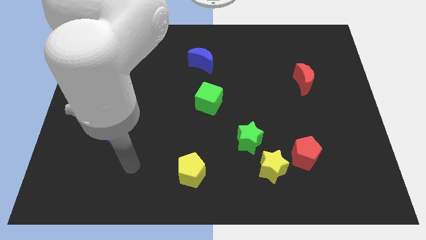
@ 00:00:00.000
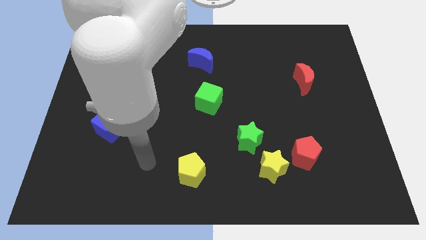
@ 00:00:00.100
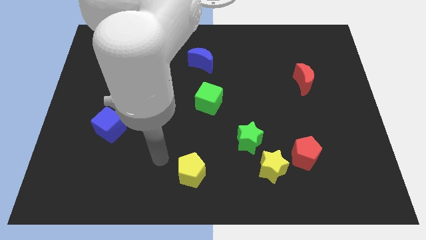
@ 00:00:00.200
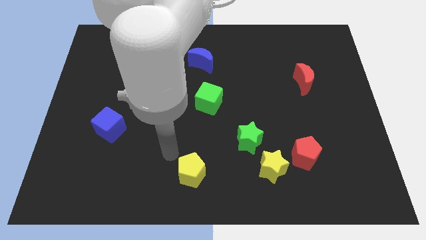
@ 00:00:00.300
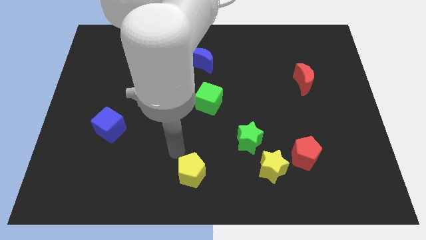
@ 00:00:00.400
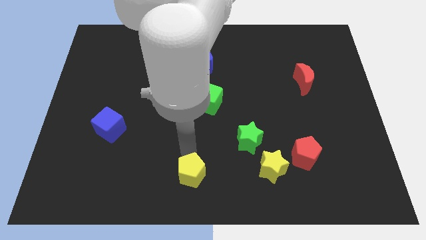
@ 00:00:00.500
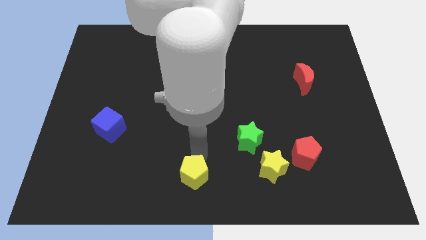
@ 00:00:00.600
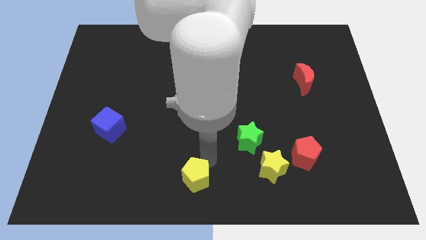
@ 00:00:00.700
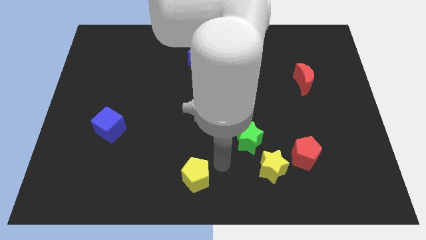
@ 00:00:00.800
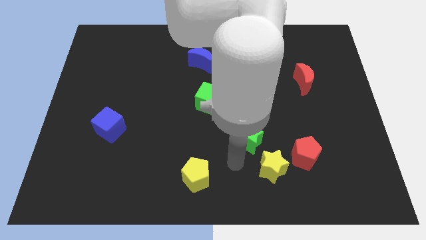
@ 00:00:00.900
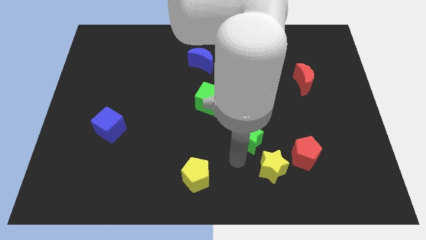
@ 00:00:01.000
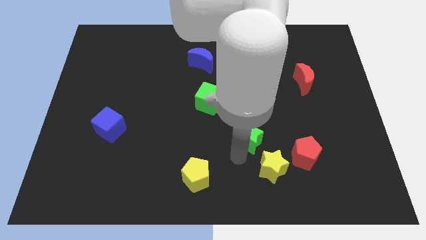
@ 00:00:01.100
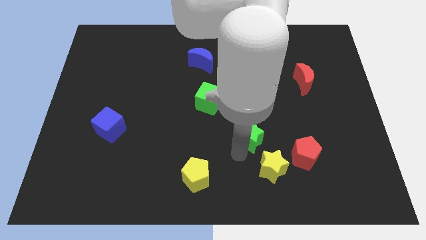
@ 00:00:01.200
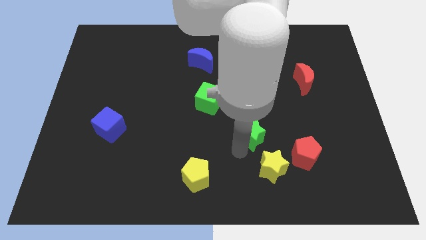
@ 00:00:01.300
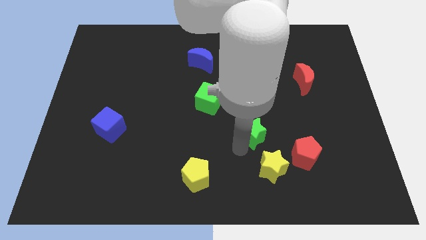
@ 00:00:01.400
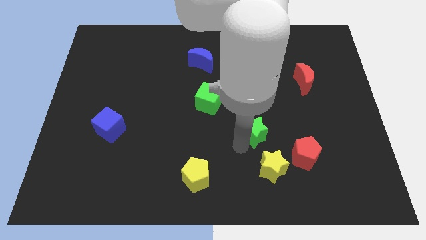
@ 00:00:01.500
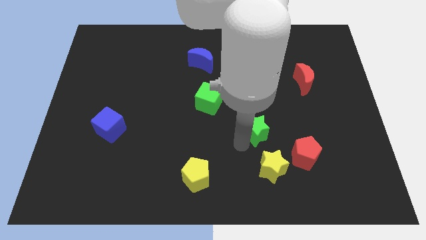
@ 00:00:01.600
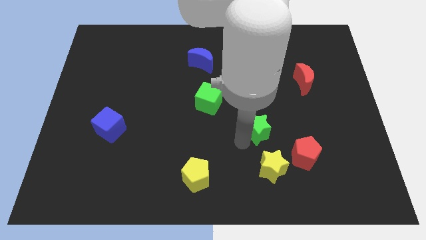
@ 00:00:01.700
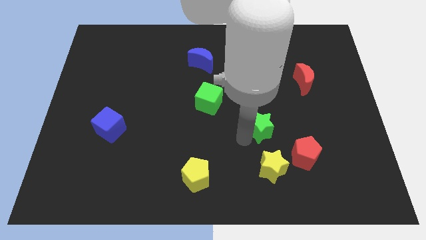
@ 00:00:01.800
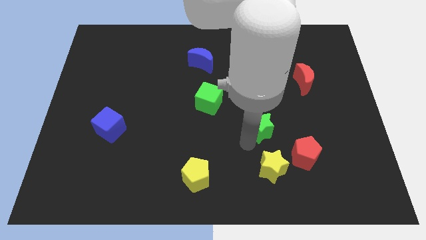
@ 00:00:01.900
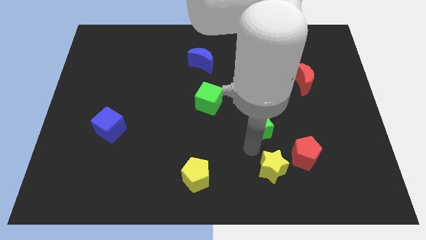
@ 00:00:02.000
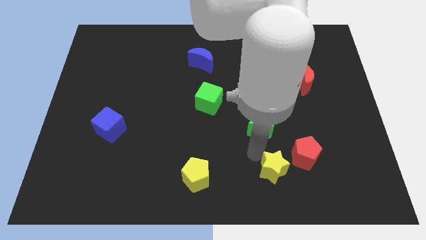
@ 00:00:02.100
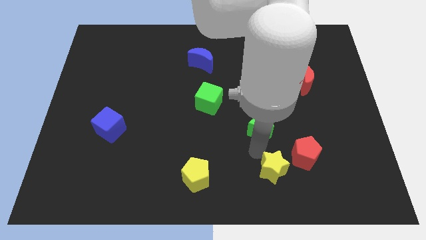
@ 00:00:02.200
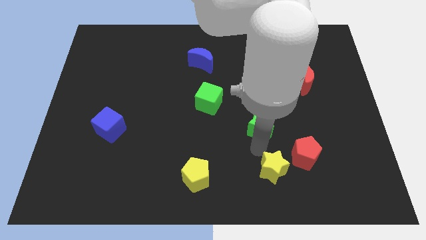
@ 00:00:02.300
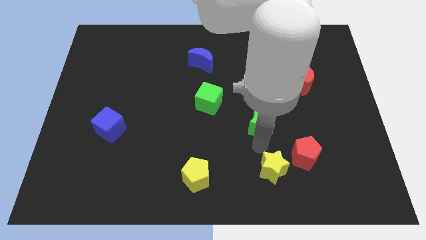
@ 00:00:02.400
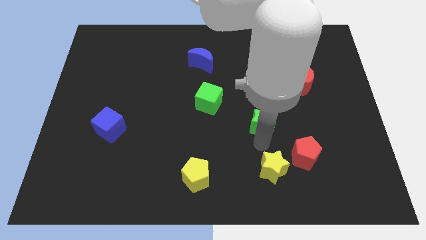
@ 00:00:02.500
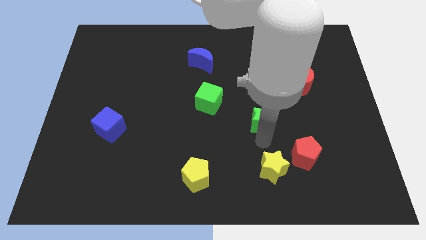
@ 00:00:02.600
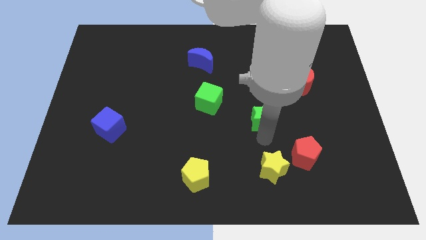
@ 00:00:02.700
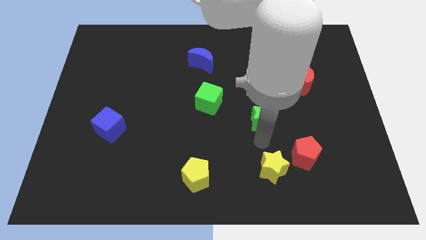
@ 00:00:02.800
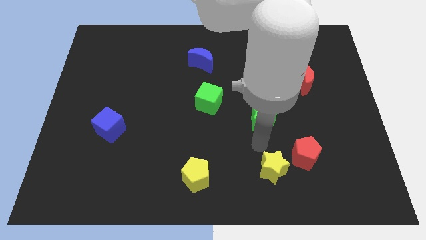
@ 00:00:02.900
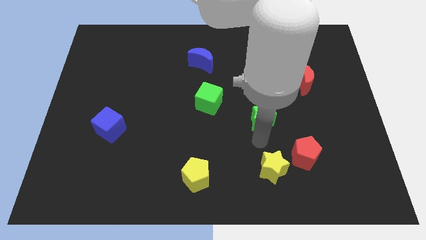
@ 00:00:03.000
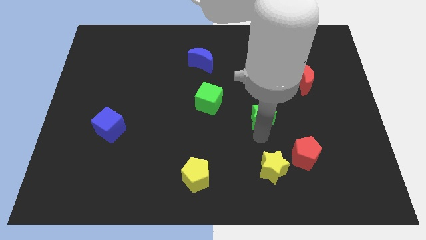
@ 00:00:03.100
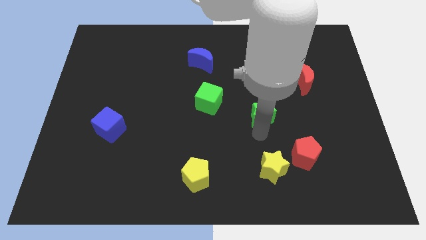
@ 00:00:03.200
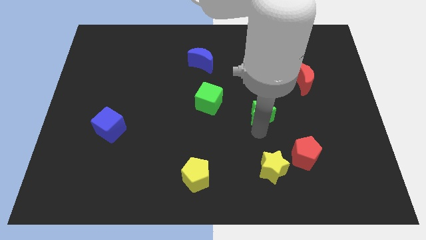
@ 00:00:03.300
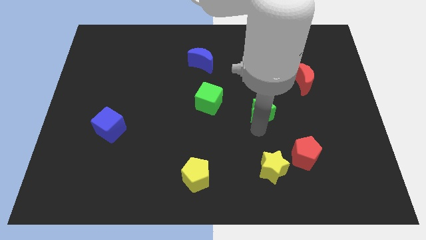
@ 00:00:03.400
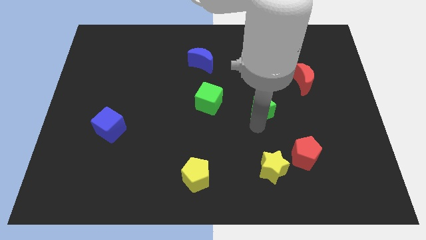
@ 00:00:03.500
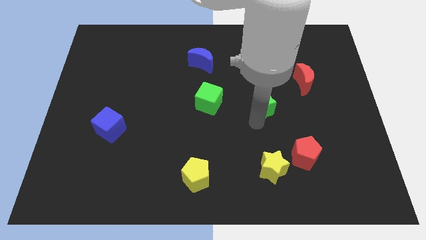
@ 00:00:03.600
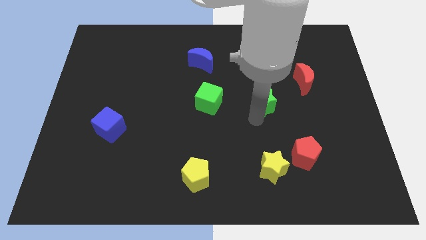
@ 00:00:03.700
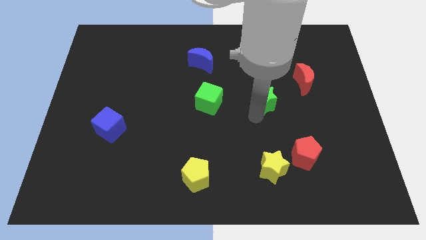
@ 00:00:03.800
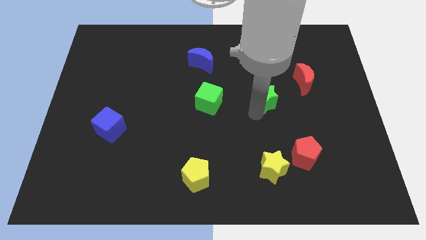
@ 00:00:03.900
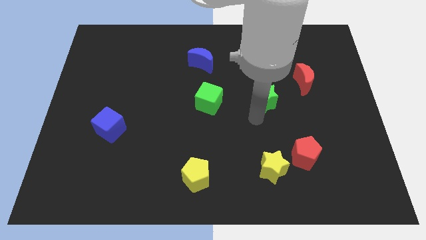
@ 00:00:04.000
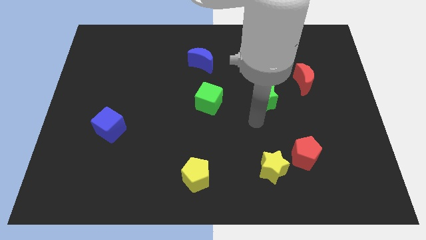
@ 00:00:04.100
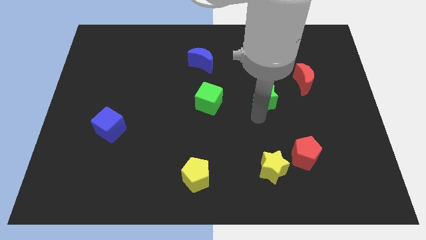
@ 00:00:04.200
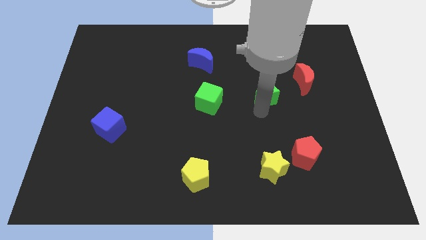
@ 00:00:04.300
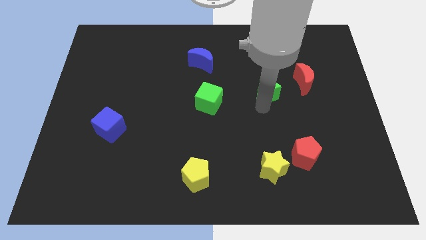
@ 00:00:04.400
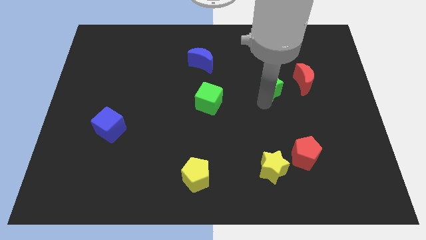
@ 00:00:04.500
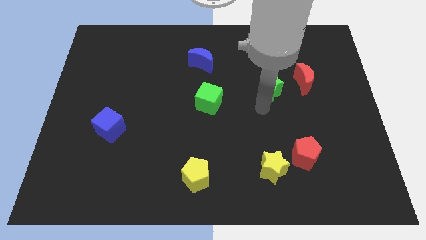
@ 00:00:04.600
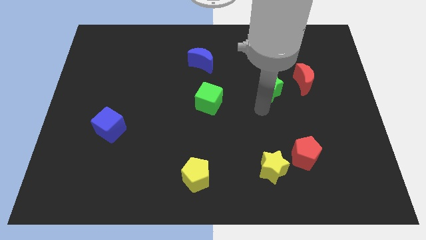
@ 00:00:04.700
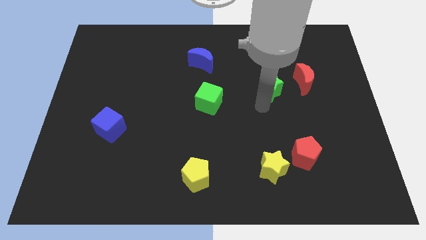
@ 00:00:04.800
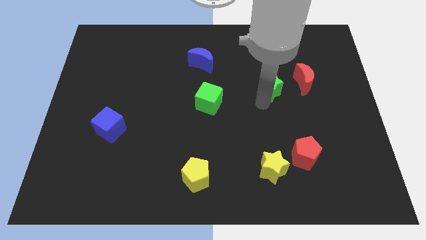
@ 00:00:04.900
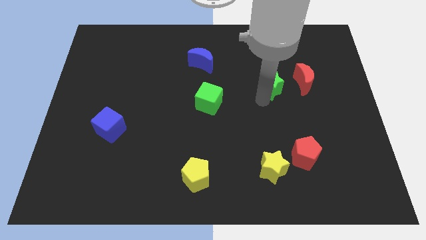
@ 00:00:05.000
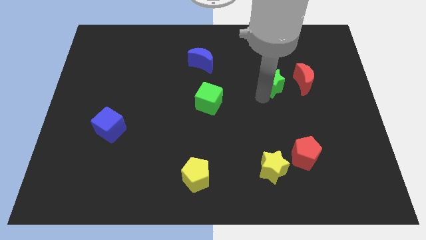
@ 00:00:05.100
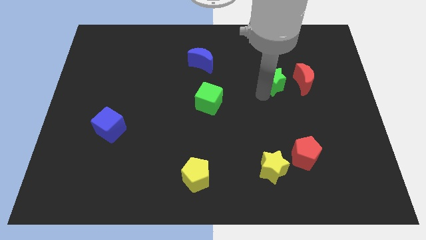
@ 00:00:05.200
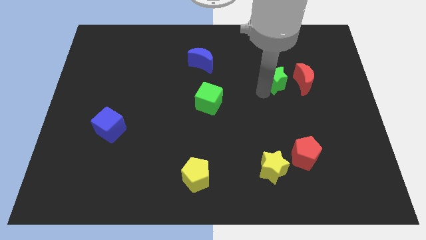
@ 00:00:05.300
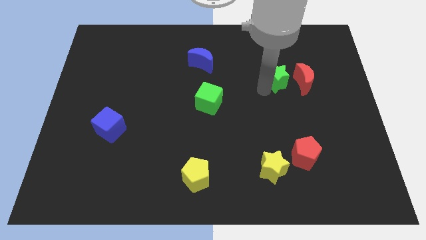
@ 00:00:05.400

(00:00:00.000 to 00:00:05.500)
slide the green star diagonally up and to the left of the red moon

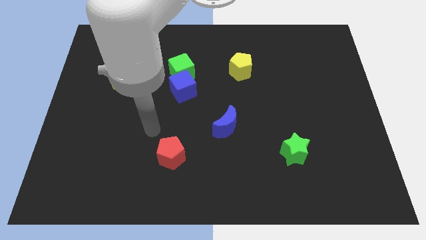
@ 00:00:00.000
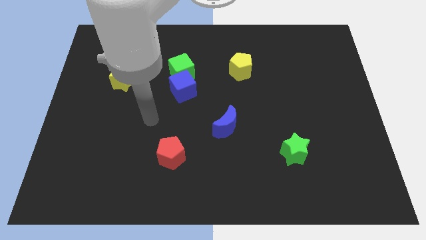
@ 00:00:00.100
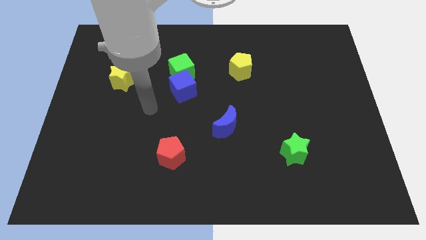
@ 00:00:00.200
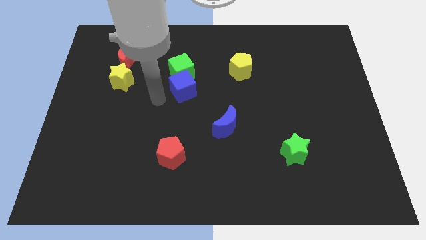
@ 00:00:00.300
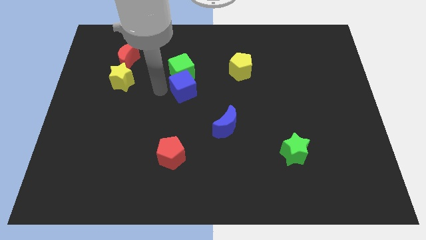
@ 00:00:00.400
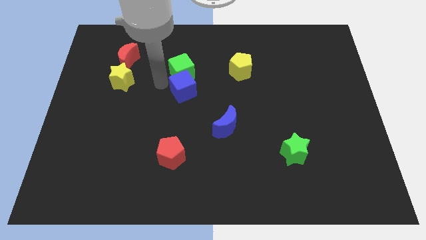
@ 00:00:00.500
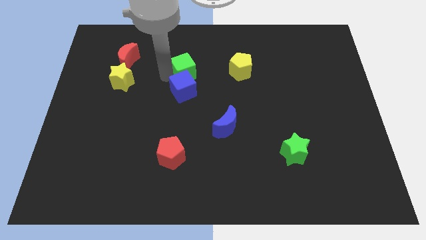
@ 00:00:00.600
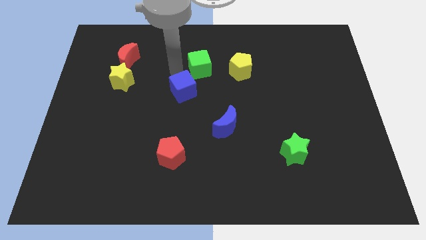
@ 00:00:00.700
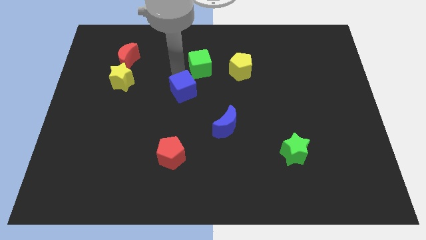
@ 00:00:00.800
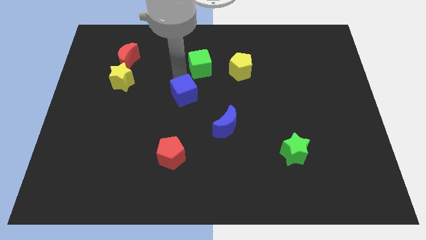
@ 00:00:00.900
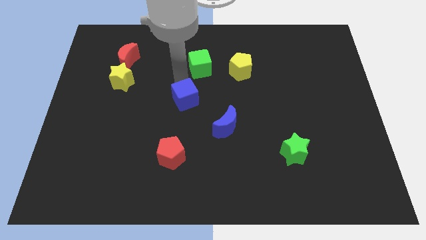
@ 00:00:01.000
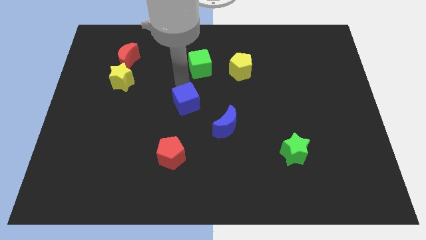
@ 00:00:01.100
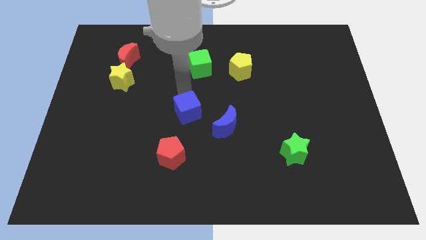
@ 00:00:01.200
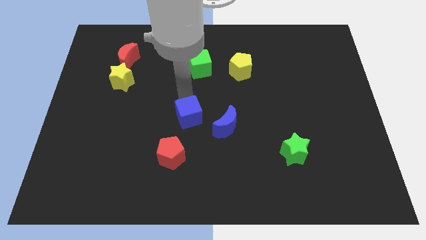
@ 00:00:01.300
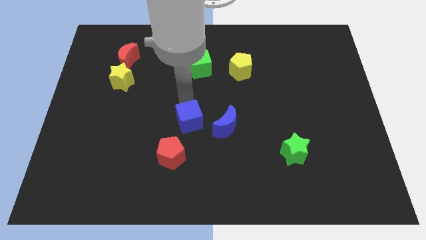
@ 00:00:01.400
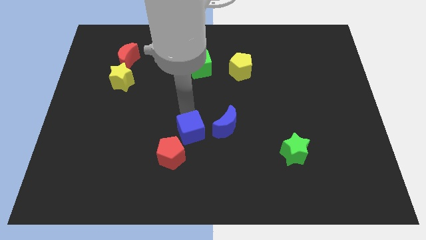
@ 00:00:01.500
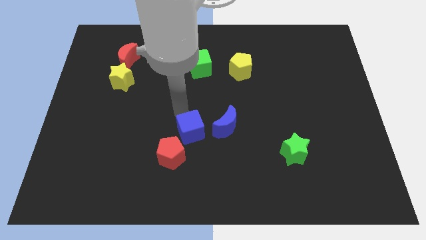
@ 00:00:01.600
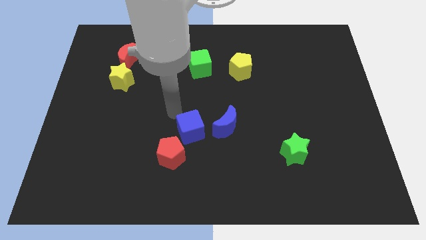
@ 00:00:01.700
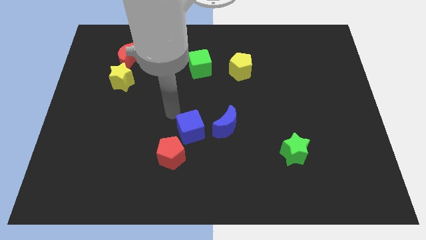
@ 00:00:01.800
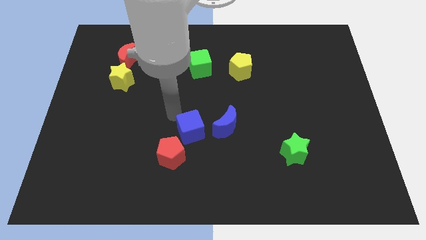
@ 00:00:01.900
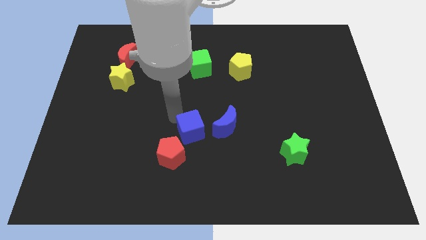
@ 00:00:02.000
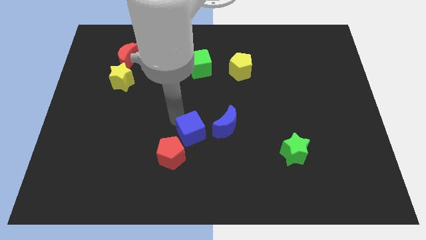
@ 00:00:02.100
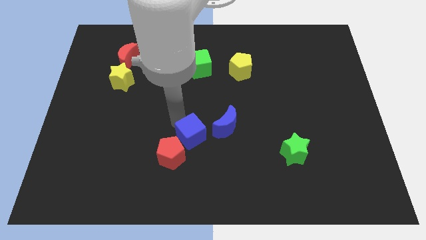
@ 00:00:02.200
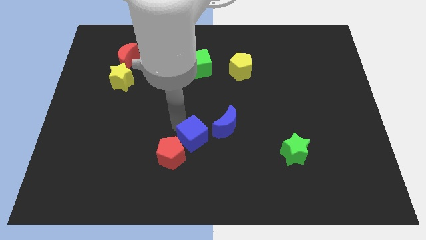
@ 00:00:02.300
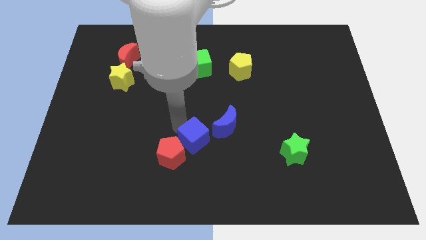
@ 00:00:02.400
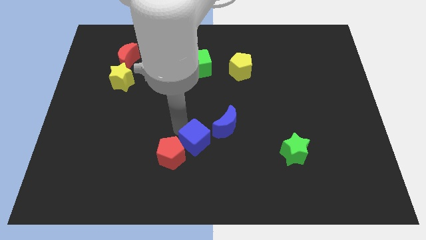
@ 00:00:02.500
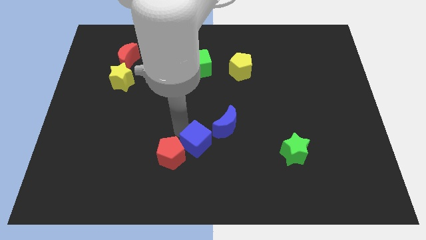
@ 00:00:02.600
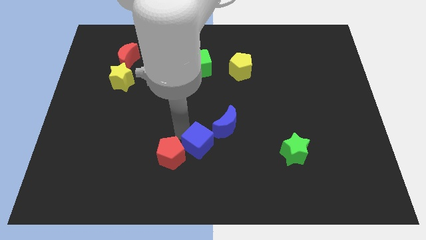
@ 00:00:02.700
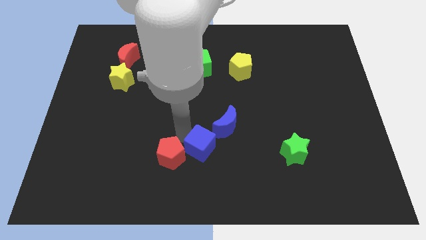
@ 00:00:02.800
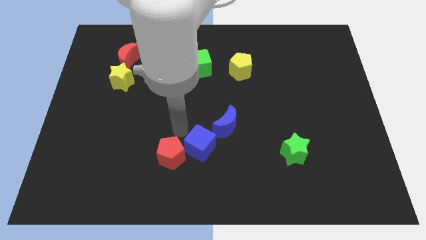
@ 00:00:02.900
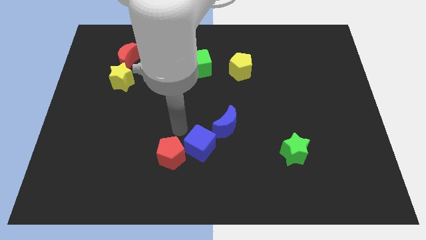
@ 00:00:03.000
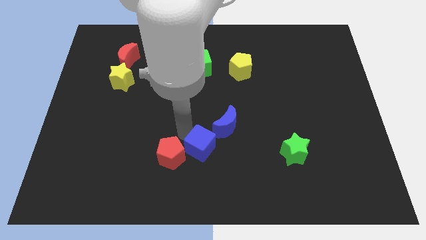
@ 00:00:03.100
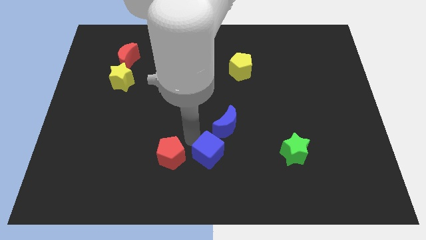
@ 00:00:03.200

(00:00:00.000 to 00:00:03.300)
slide the blue cube below the blue moon
